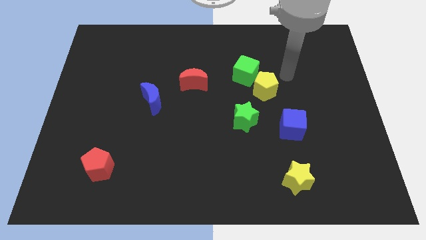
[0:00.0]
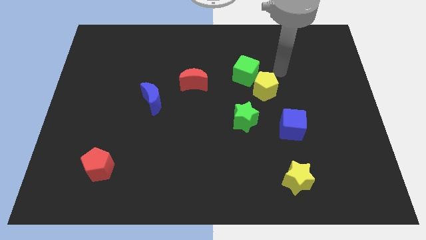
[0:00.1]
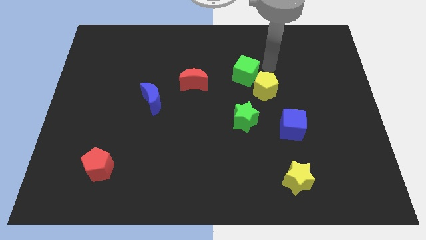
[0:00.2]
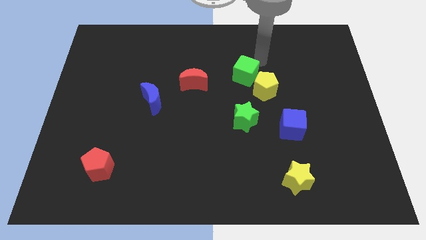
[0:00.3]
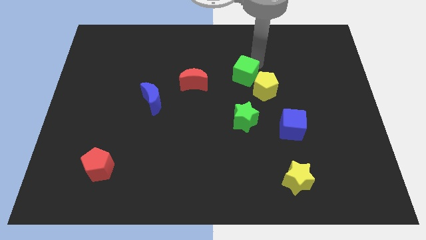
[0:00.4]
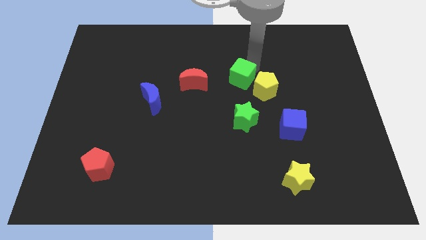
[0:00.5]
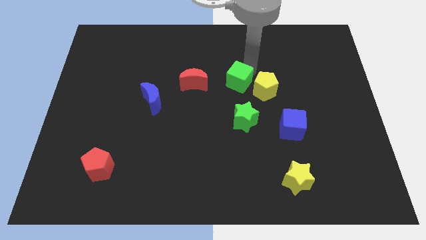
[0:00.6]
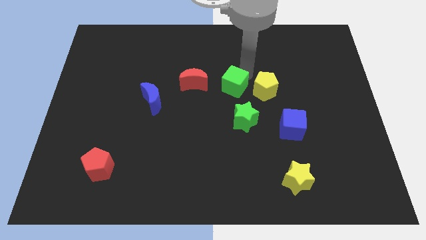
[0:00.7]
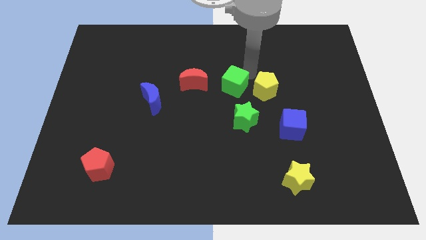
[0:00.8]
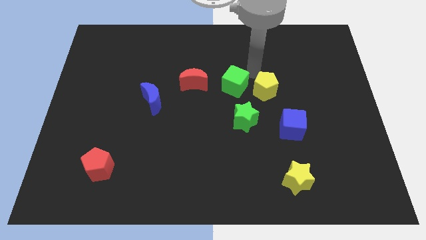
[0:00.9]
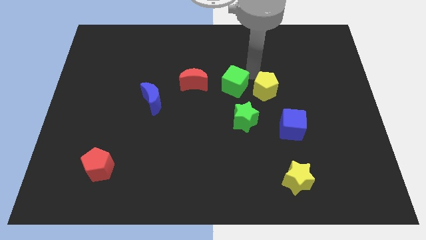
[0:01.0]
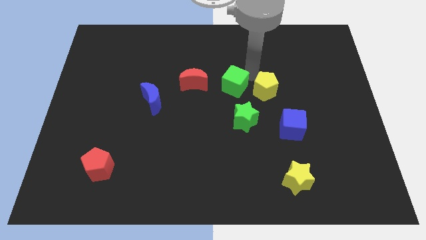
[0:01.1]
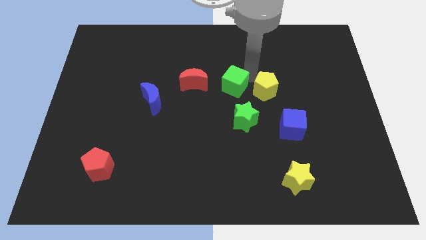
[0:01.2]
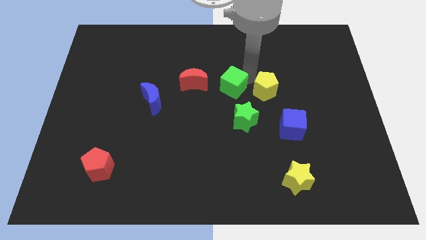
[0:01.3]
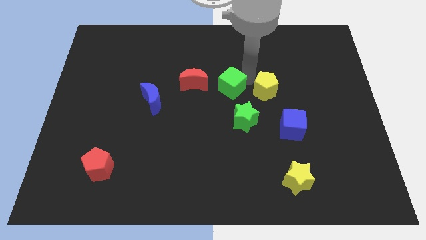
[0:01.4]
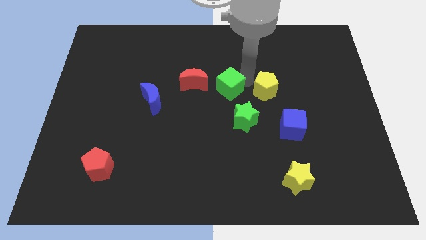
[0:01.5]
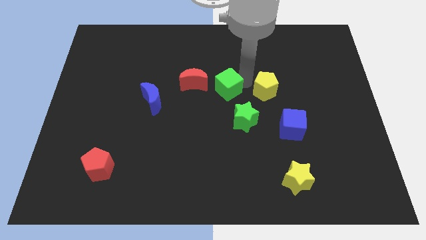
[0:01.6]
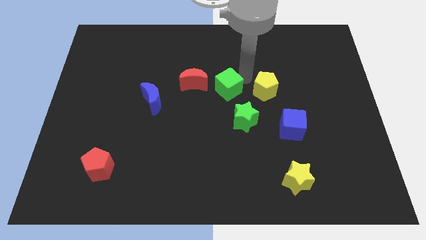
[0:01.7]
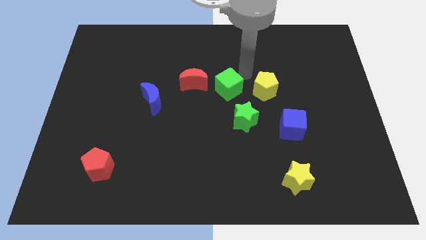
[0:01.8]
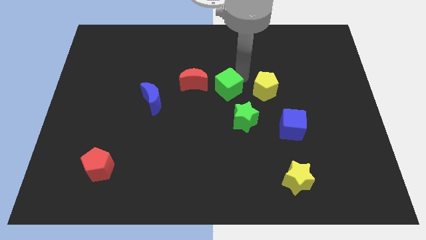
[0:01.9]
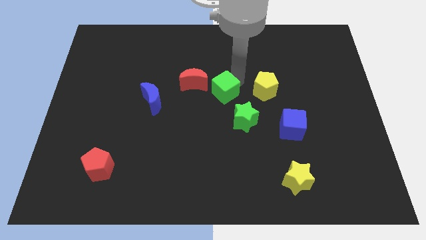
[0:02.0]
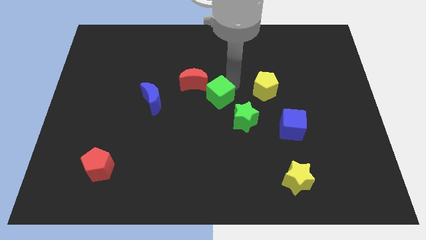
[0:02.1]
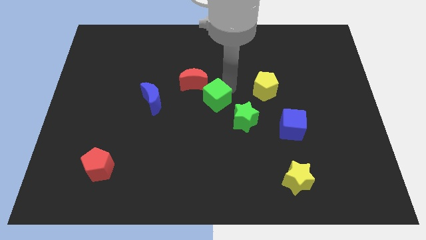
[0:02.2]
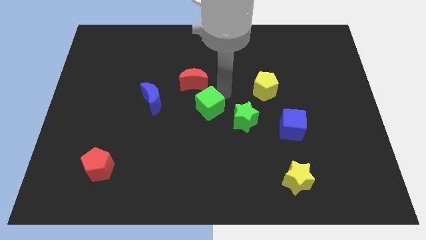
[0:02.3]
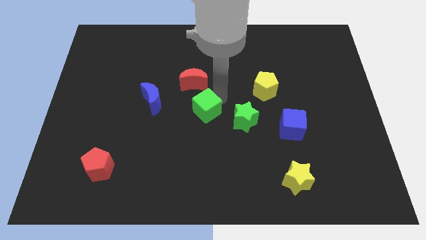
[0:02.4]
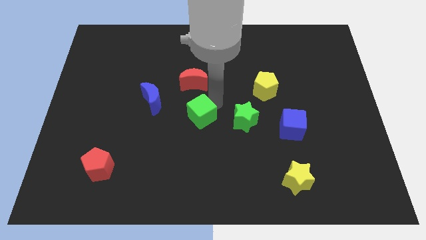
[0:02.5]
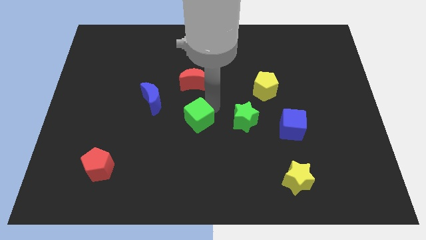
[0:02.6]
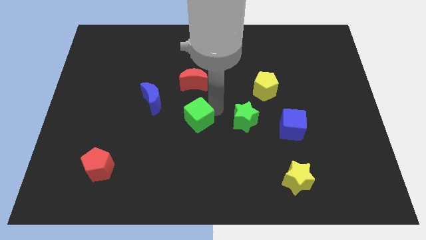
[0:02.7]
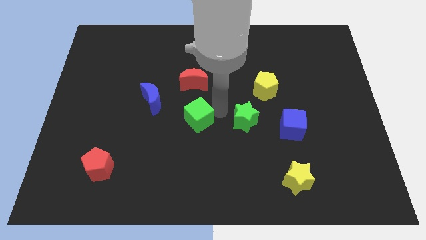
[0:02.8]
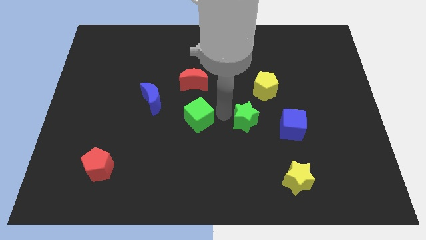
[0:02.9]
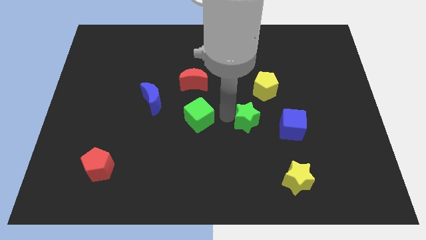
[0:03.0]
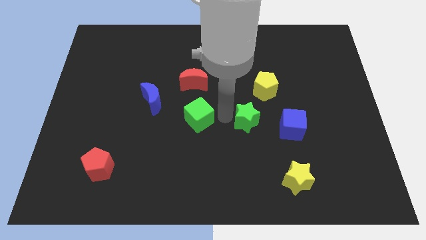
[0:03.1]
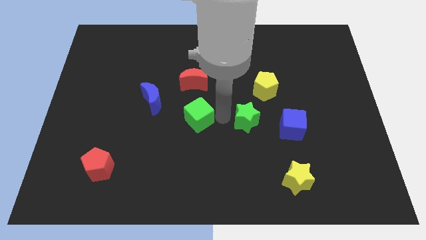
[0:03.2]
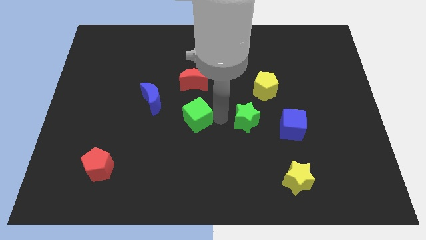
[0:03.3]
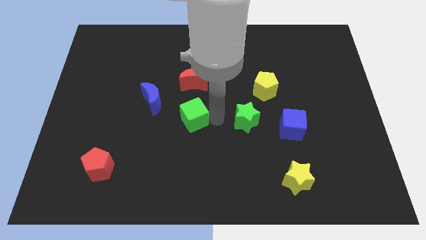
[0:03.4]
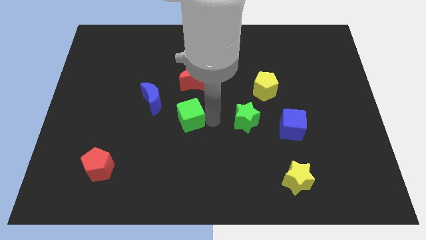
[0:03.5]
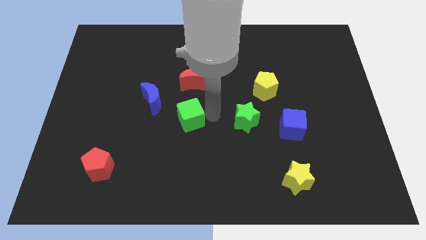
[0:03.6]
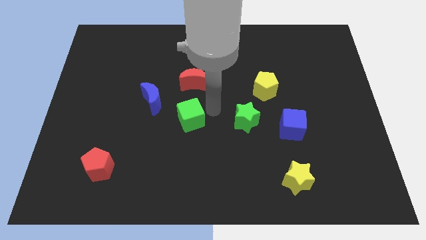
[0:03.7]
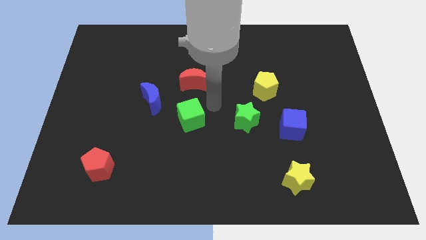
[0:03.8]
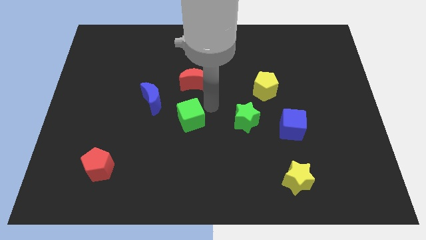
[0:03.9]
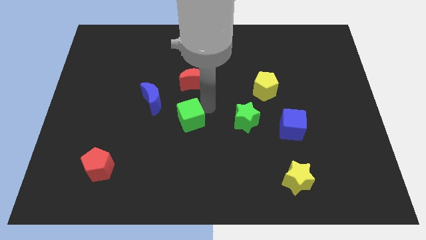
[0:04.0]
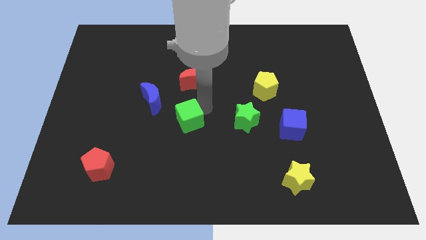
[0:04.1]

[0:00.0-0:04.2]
move the green cube down and left

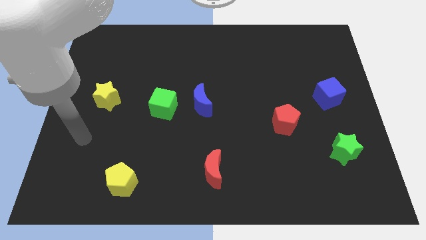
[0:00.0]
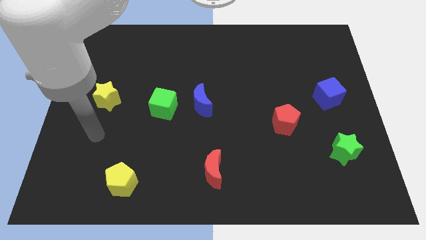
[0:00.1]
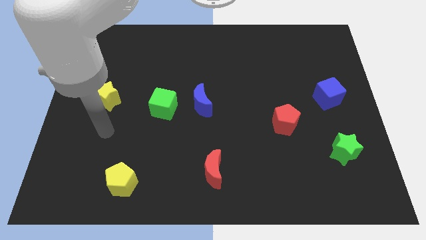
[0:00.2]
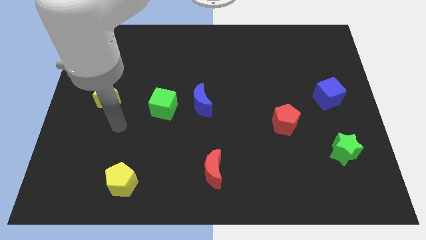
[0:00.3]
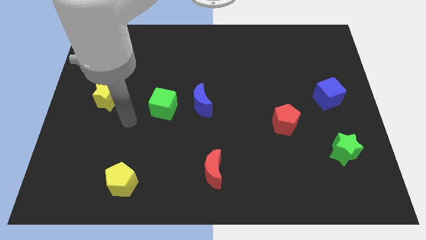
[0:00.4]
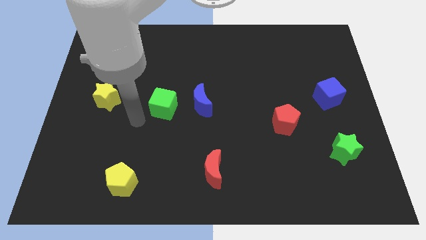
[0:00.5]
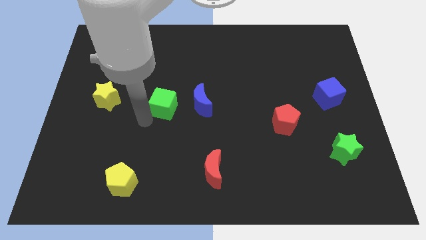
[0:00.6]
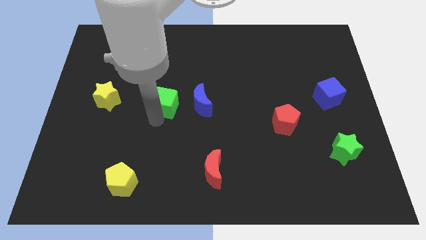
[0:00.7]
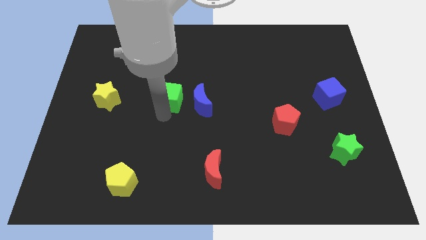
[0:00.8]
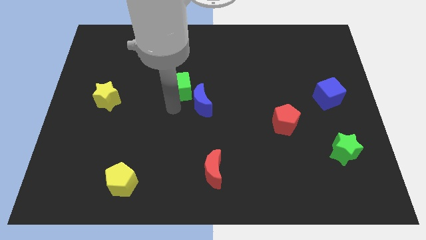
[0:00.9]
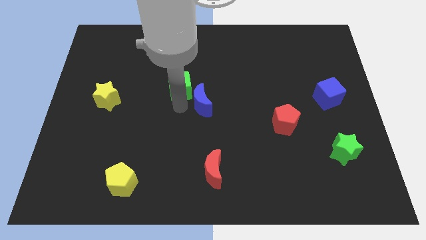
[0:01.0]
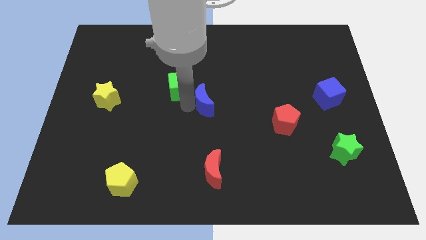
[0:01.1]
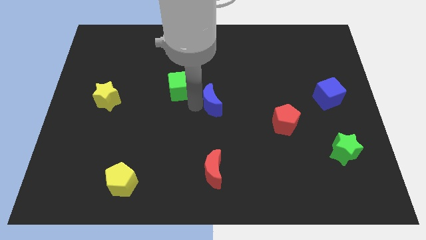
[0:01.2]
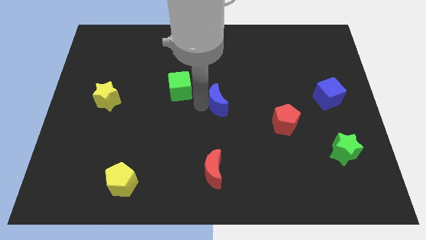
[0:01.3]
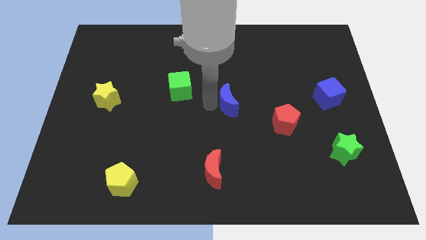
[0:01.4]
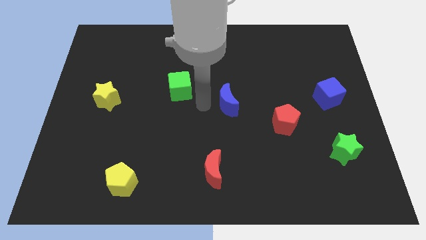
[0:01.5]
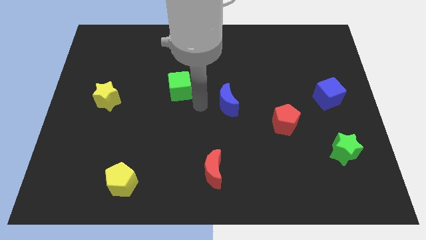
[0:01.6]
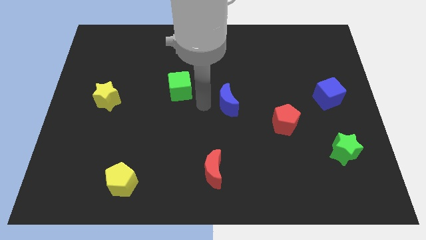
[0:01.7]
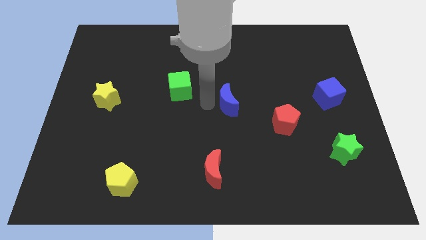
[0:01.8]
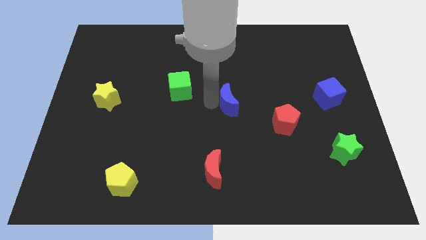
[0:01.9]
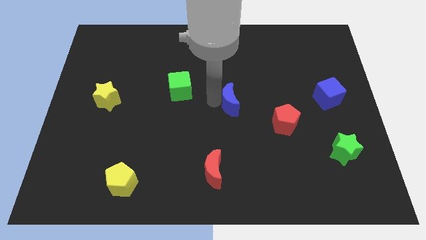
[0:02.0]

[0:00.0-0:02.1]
push the blue moon slightly right

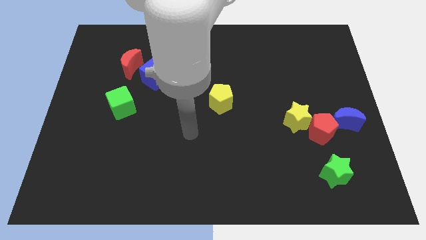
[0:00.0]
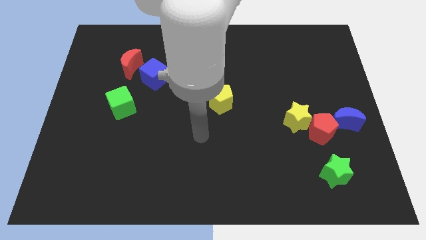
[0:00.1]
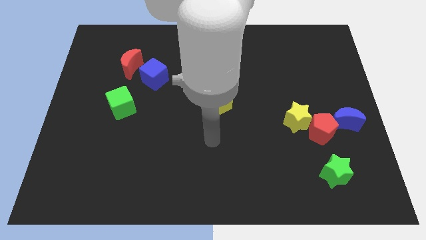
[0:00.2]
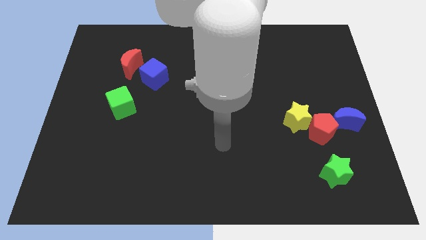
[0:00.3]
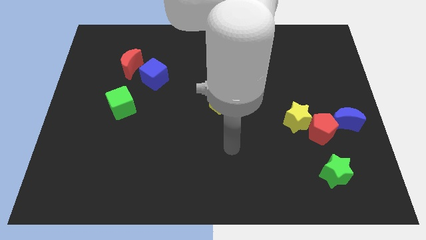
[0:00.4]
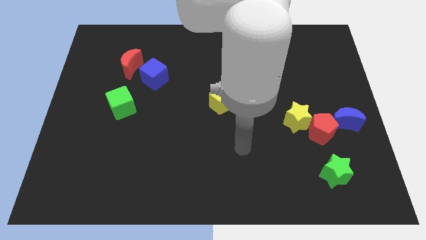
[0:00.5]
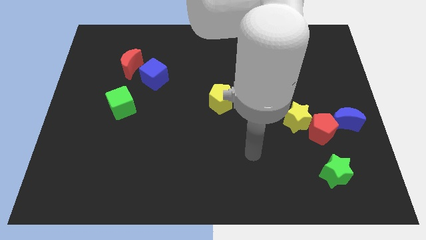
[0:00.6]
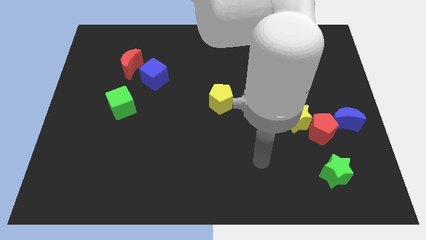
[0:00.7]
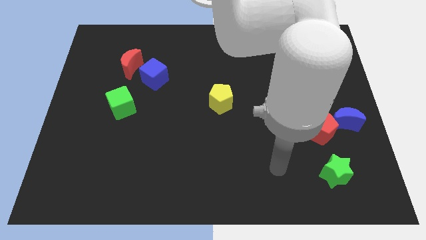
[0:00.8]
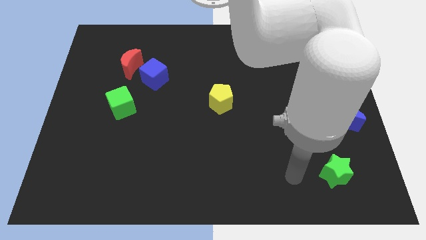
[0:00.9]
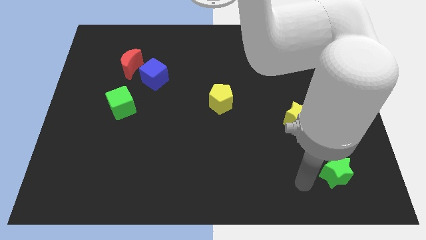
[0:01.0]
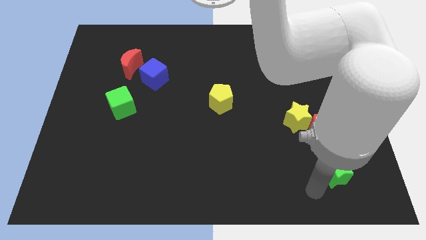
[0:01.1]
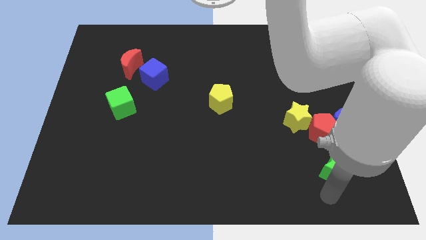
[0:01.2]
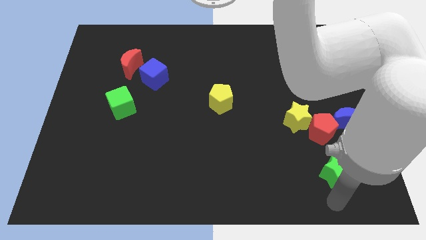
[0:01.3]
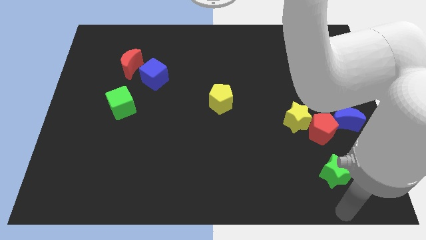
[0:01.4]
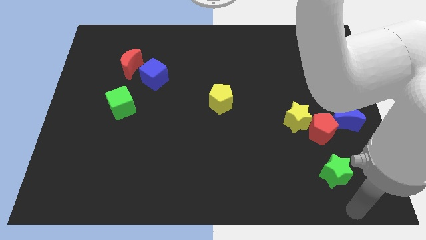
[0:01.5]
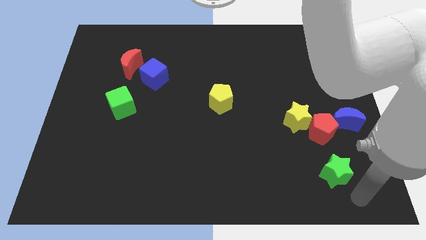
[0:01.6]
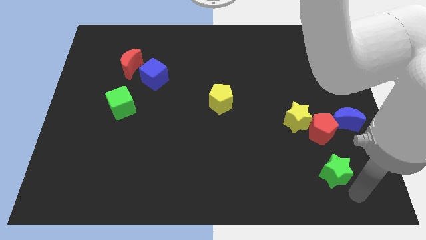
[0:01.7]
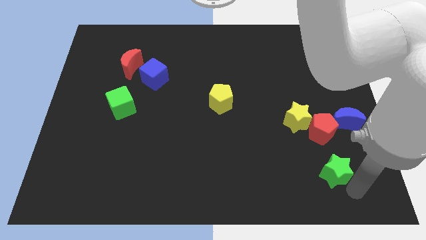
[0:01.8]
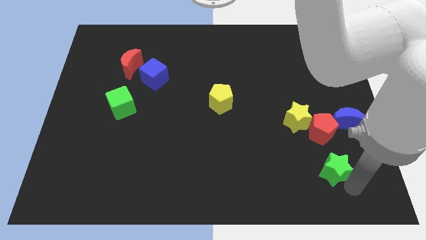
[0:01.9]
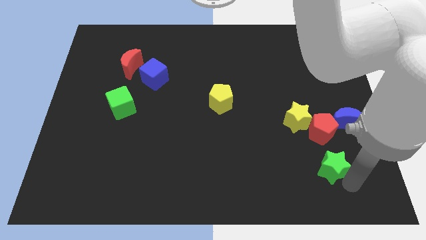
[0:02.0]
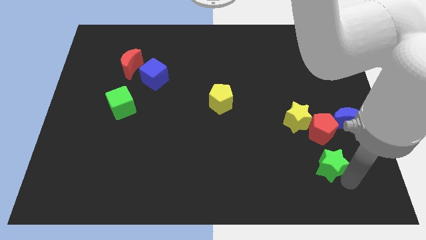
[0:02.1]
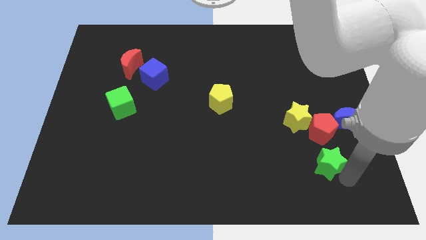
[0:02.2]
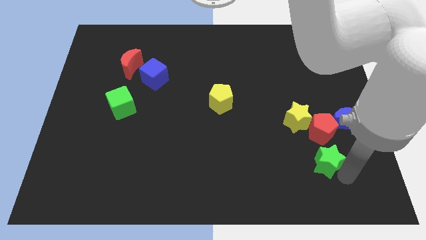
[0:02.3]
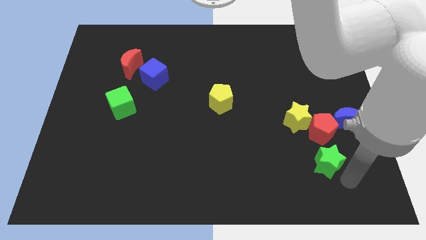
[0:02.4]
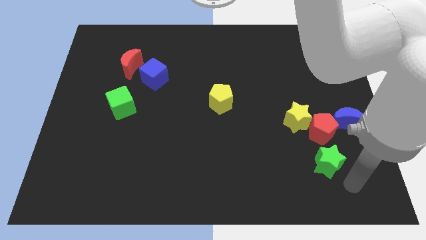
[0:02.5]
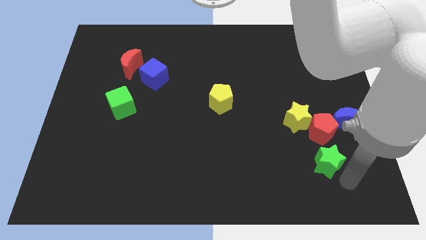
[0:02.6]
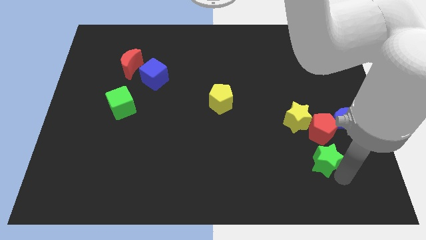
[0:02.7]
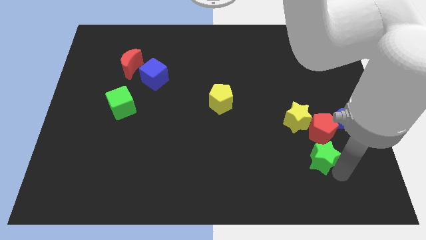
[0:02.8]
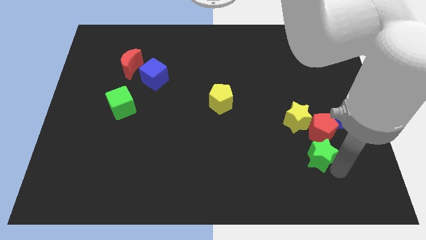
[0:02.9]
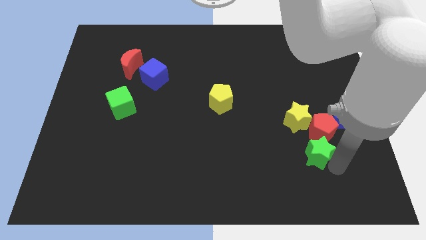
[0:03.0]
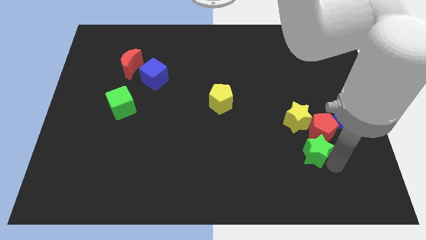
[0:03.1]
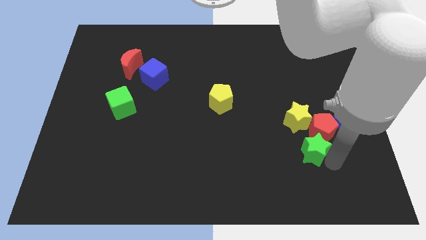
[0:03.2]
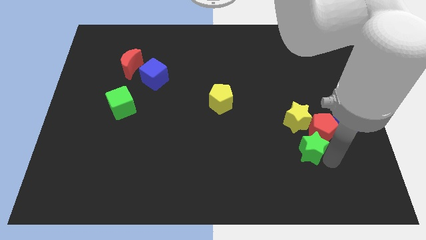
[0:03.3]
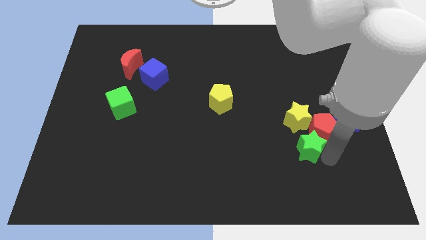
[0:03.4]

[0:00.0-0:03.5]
slide the green star a bit diagonally up and to the left
